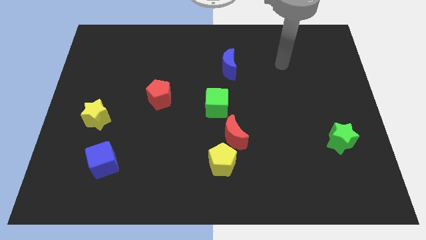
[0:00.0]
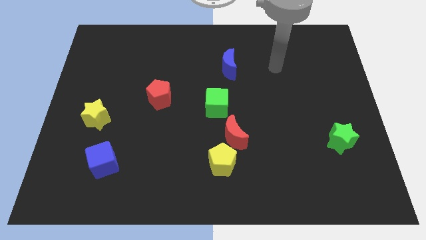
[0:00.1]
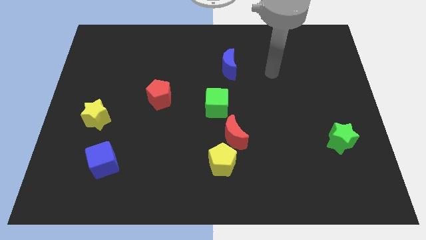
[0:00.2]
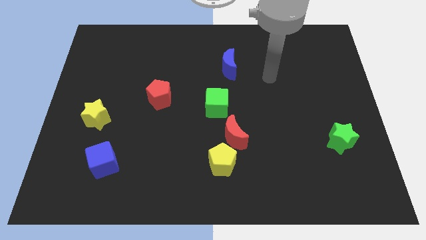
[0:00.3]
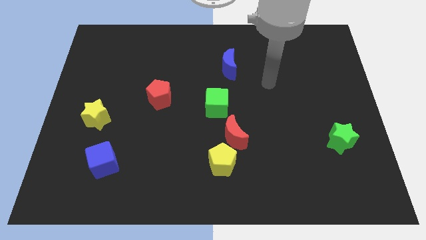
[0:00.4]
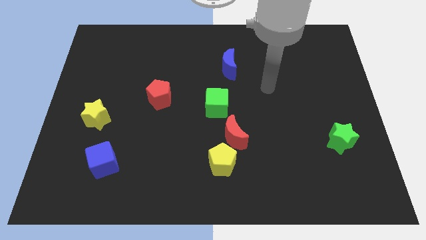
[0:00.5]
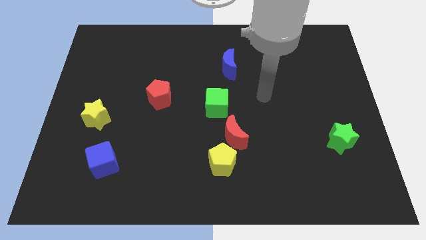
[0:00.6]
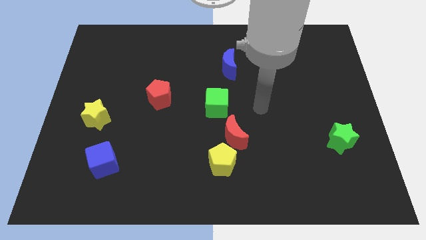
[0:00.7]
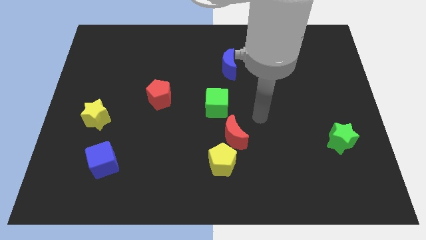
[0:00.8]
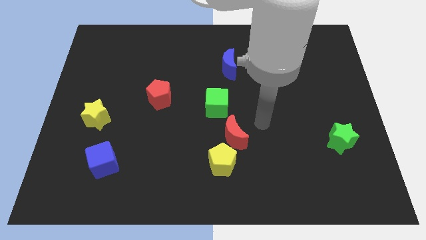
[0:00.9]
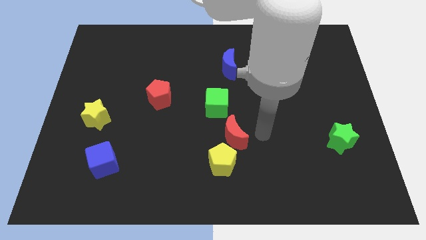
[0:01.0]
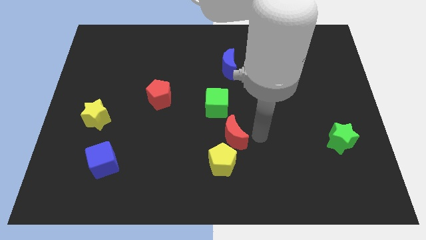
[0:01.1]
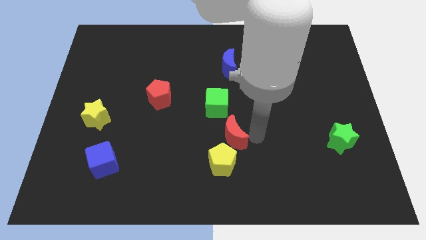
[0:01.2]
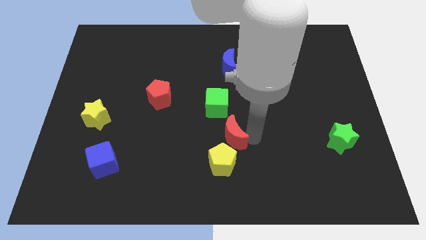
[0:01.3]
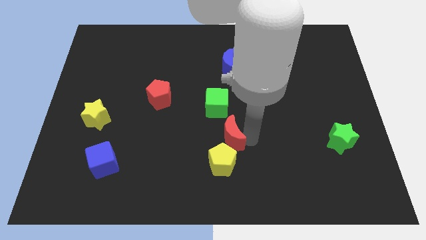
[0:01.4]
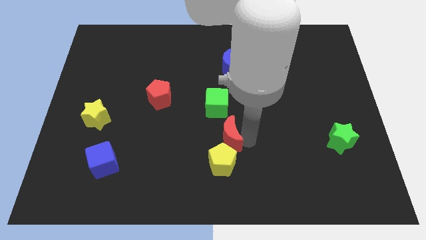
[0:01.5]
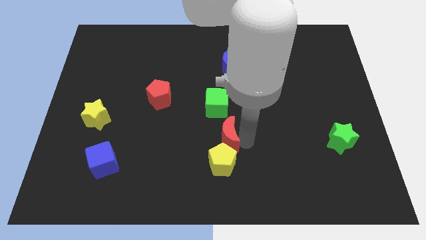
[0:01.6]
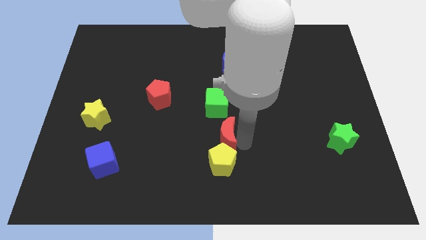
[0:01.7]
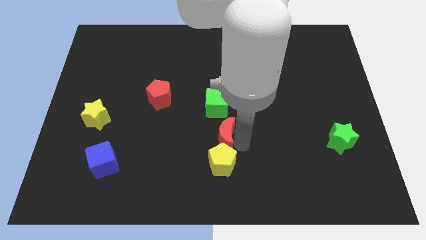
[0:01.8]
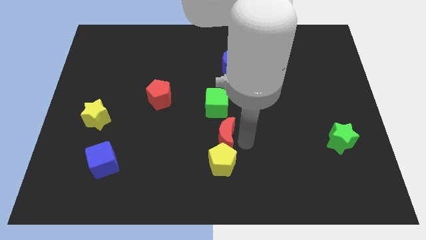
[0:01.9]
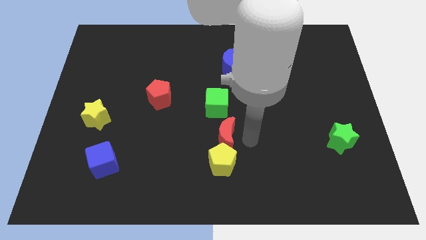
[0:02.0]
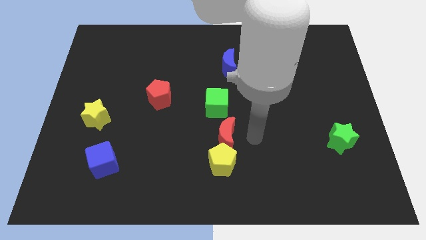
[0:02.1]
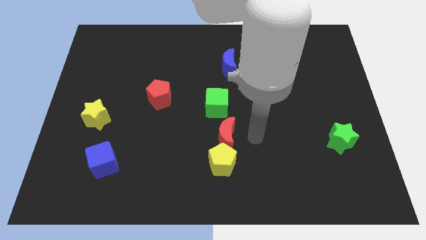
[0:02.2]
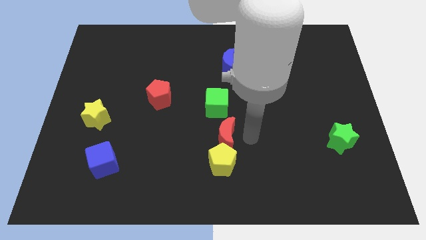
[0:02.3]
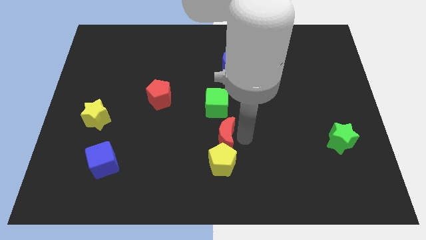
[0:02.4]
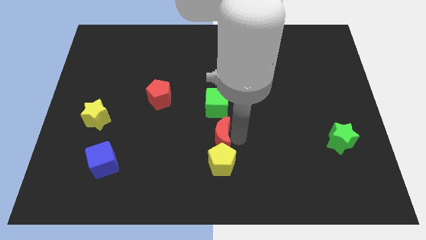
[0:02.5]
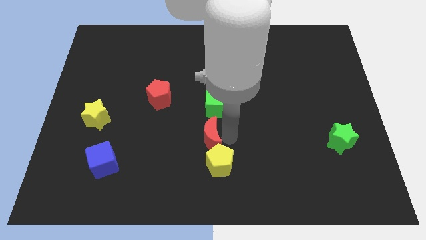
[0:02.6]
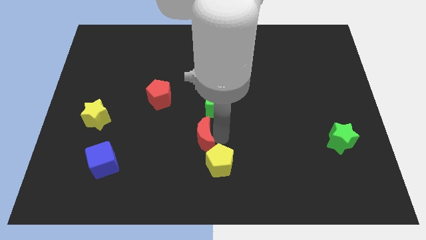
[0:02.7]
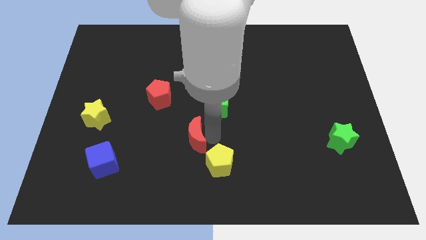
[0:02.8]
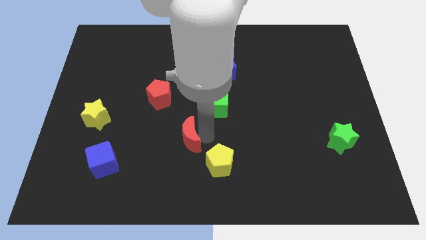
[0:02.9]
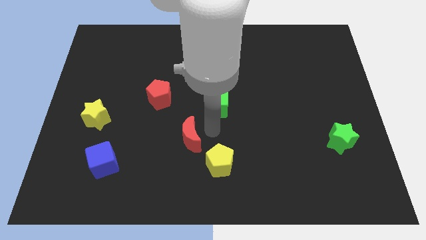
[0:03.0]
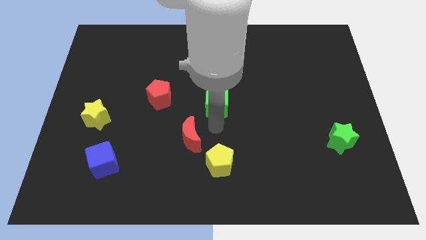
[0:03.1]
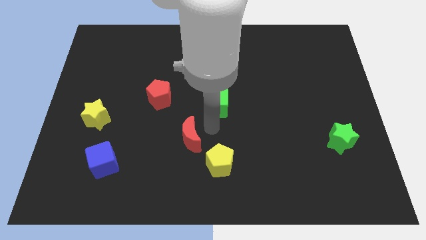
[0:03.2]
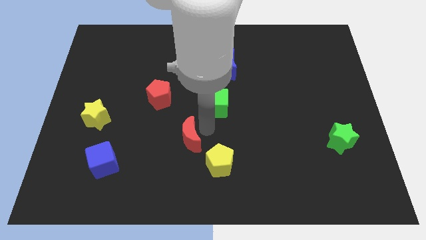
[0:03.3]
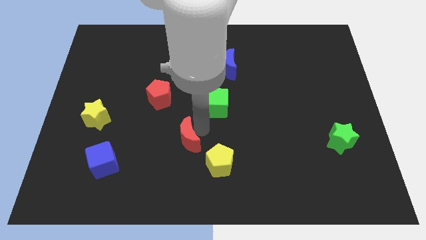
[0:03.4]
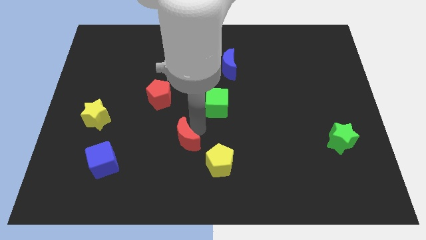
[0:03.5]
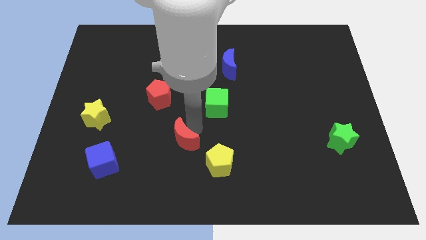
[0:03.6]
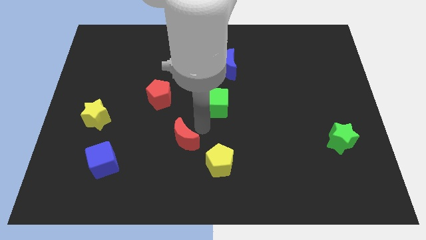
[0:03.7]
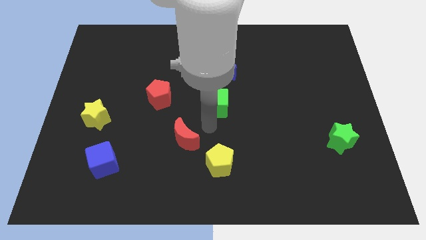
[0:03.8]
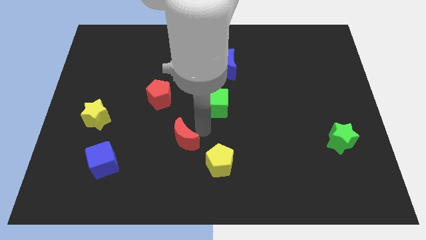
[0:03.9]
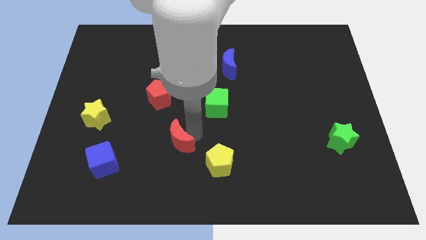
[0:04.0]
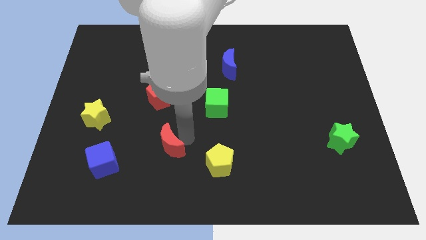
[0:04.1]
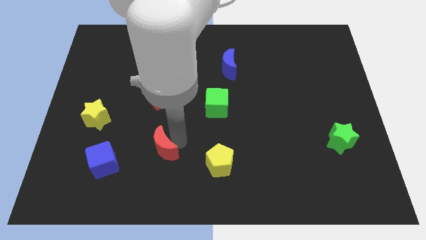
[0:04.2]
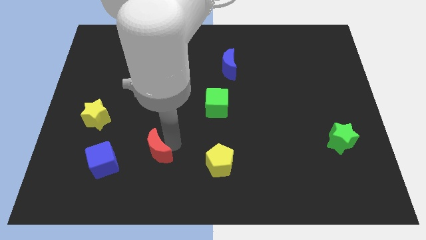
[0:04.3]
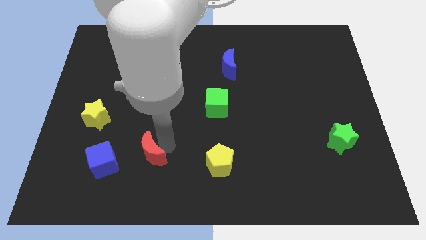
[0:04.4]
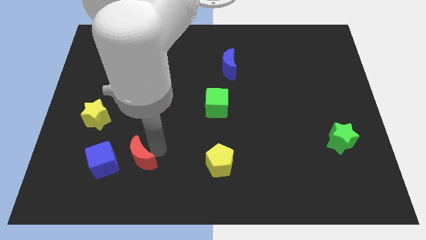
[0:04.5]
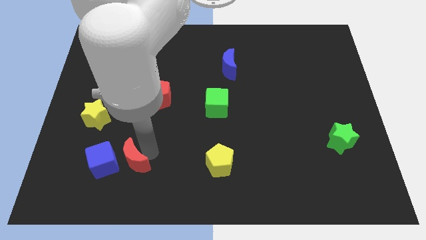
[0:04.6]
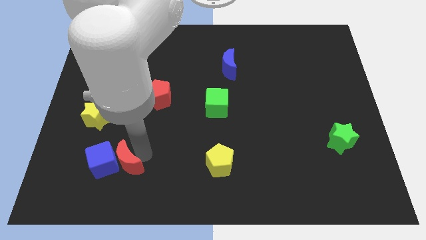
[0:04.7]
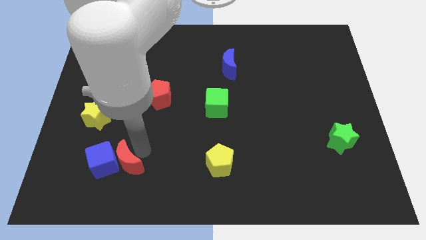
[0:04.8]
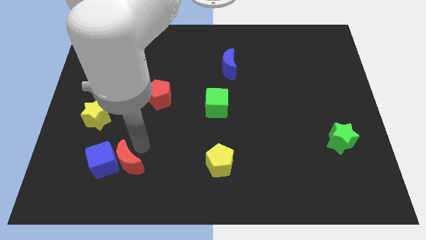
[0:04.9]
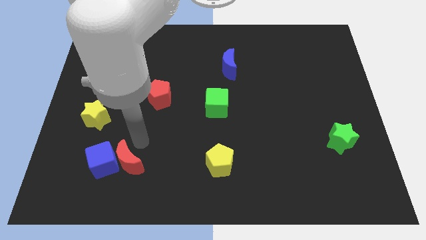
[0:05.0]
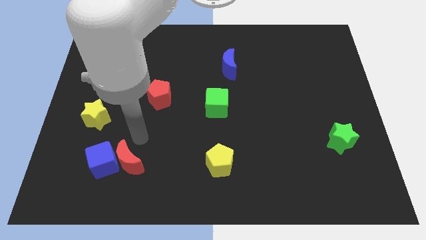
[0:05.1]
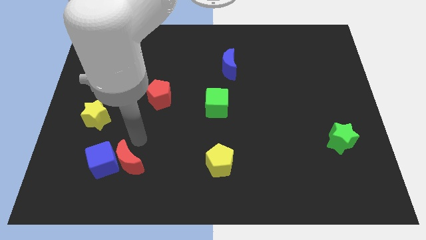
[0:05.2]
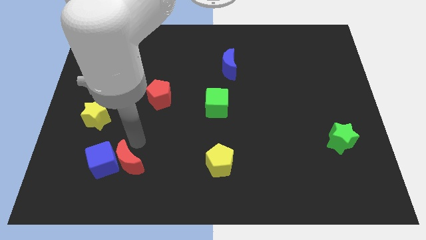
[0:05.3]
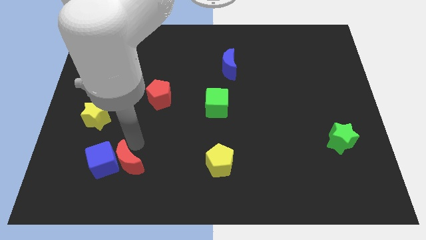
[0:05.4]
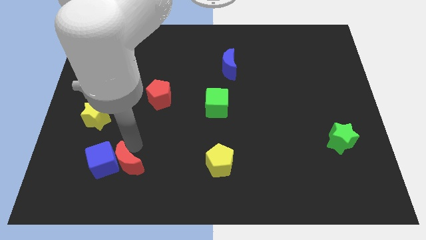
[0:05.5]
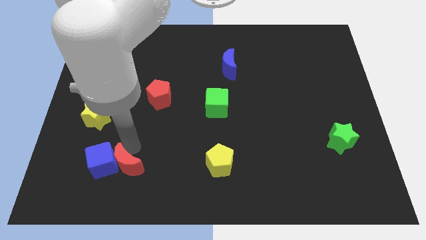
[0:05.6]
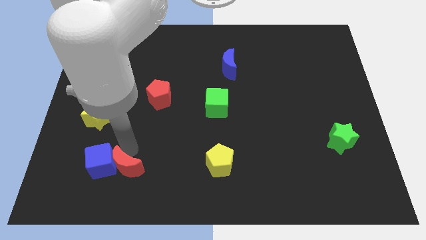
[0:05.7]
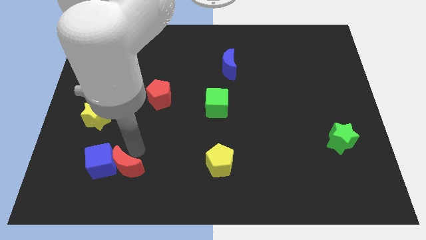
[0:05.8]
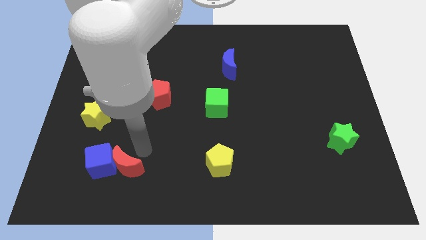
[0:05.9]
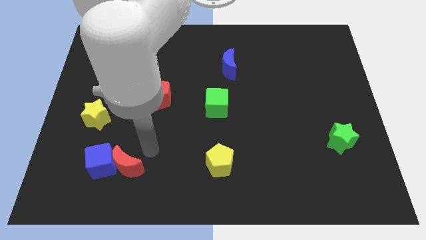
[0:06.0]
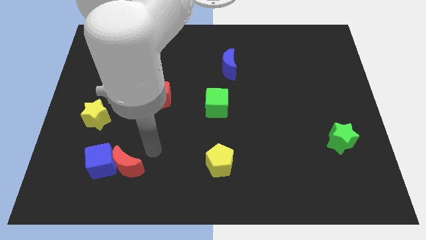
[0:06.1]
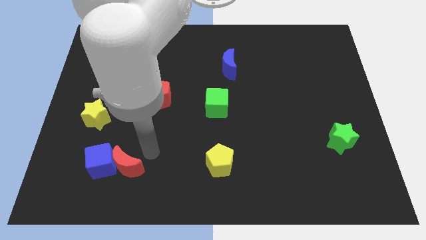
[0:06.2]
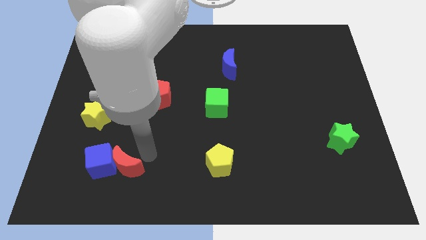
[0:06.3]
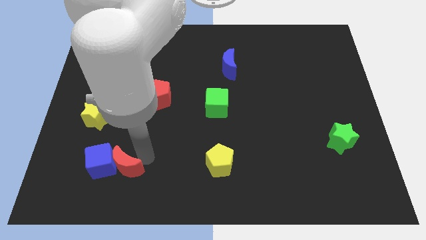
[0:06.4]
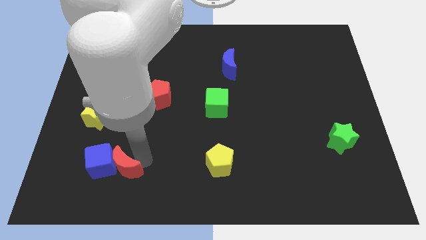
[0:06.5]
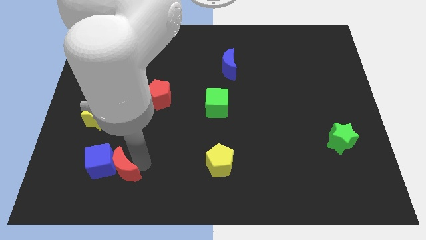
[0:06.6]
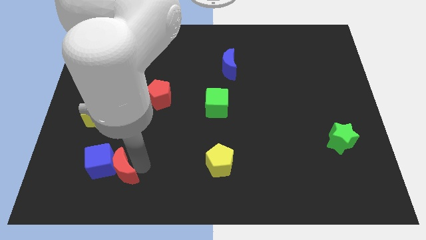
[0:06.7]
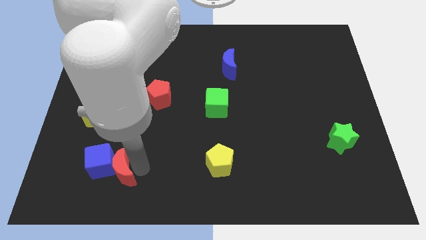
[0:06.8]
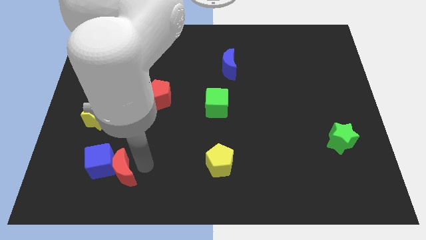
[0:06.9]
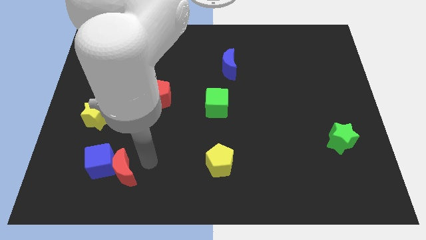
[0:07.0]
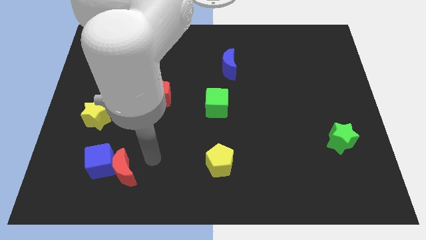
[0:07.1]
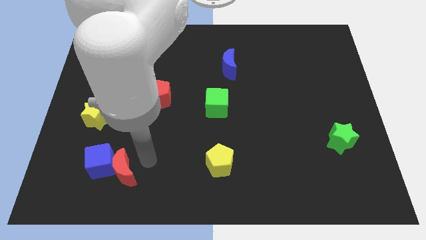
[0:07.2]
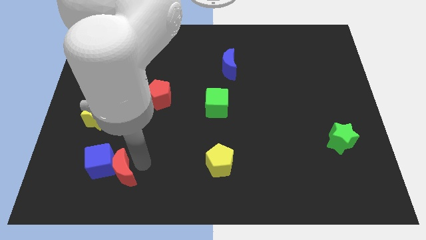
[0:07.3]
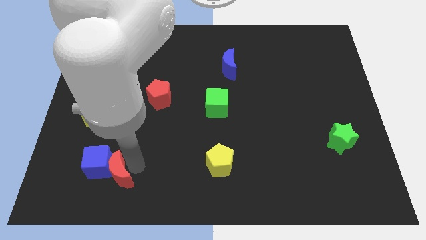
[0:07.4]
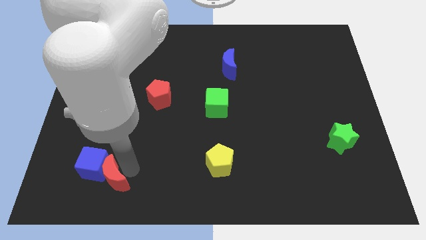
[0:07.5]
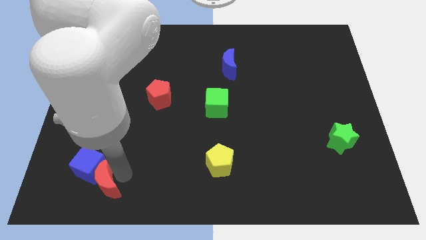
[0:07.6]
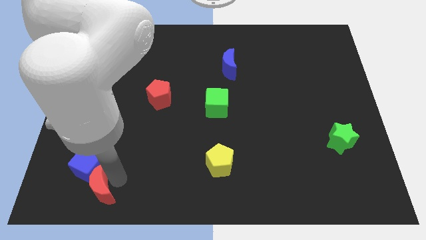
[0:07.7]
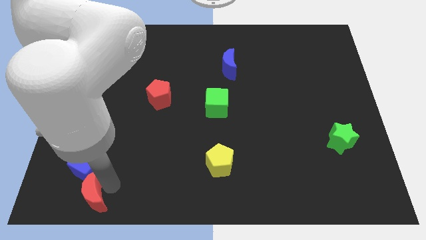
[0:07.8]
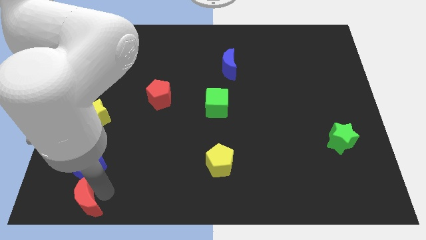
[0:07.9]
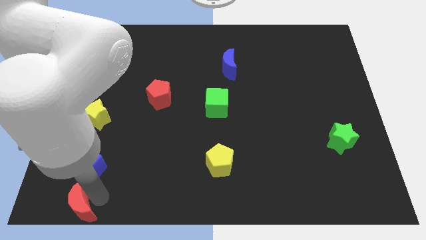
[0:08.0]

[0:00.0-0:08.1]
put the red moon to the lower left corner
